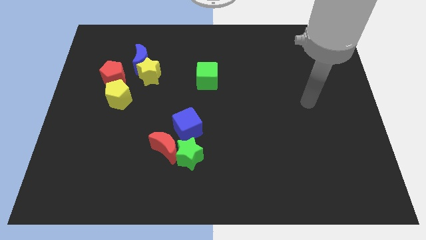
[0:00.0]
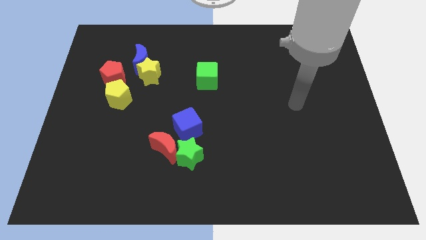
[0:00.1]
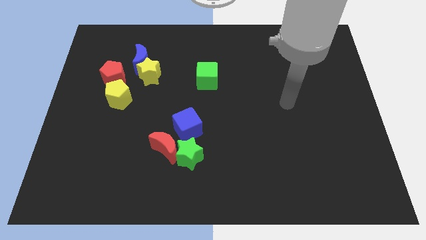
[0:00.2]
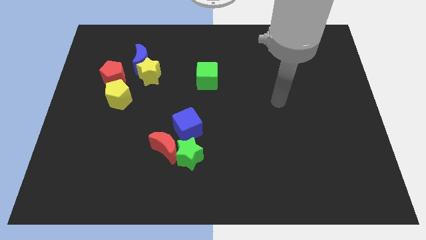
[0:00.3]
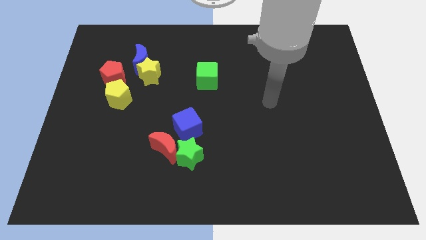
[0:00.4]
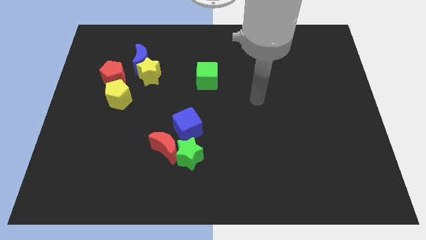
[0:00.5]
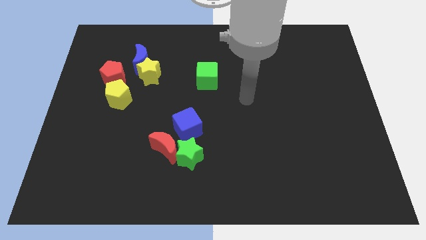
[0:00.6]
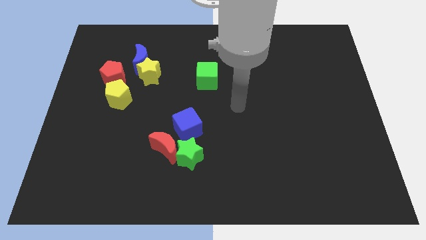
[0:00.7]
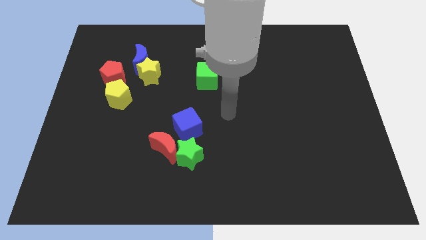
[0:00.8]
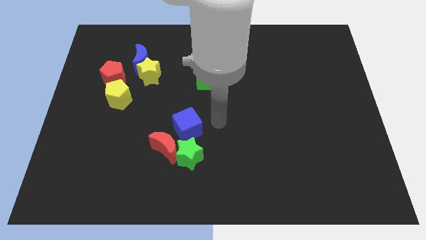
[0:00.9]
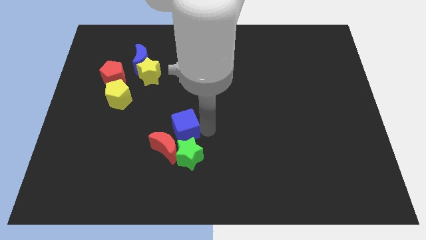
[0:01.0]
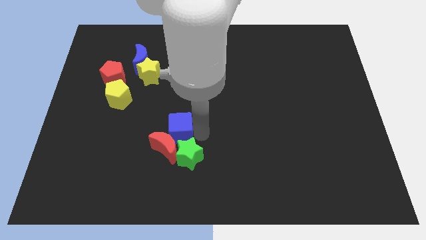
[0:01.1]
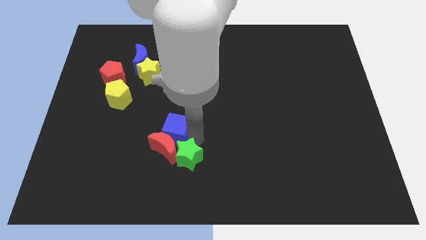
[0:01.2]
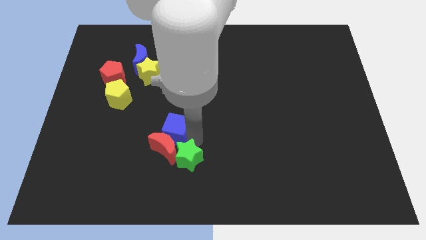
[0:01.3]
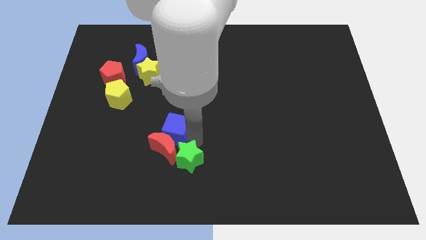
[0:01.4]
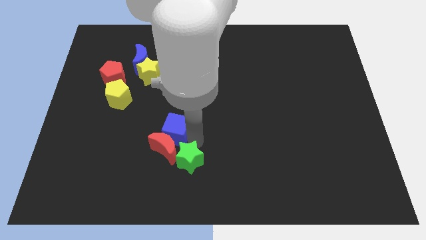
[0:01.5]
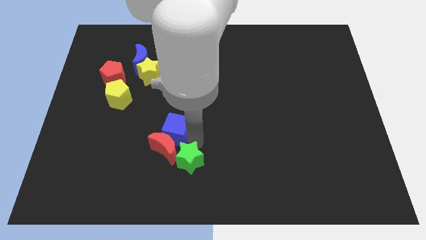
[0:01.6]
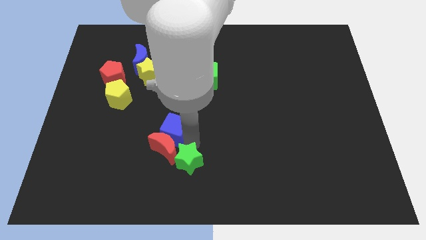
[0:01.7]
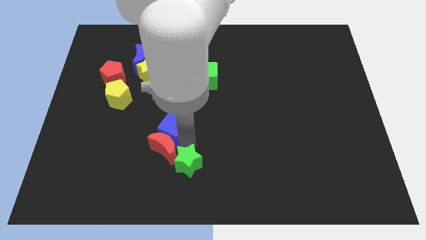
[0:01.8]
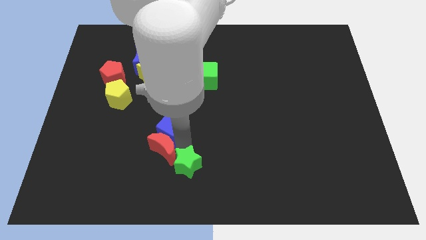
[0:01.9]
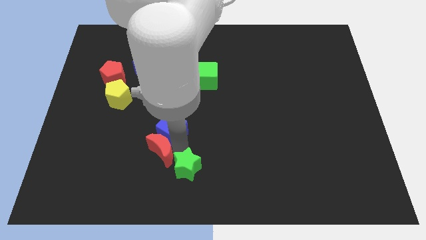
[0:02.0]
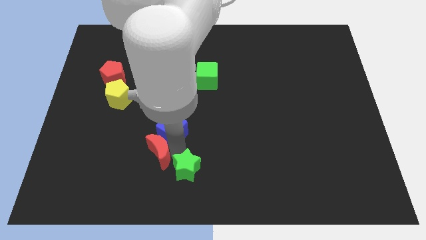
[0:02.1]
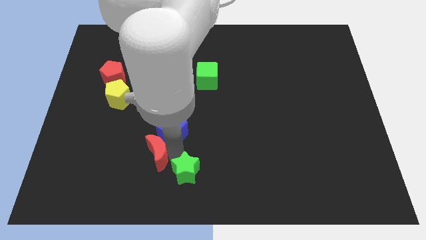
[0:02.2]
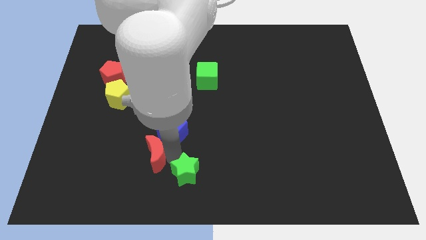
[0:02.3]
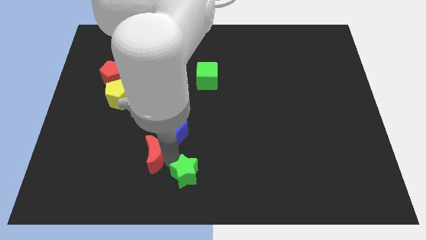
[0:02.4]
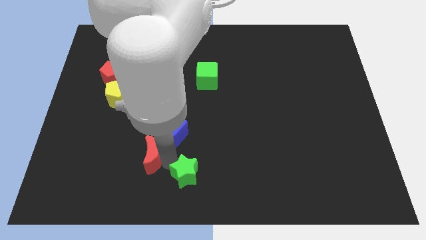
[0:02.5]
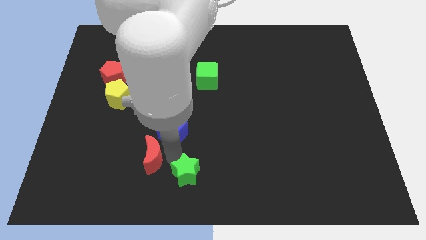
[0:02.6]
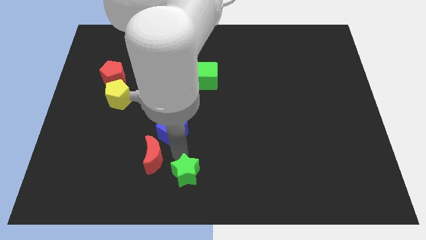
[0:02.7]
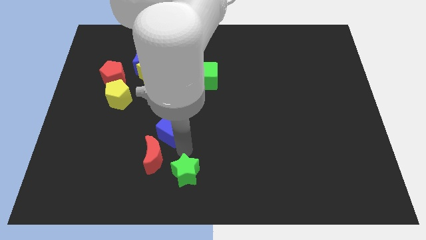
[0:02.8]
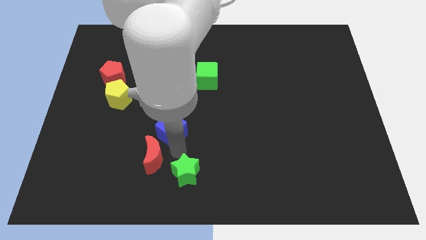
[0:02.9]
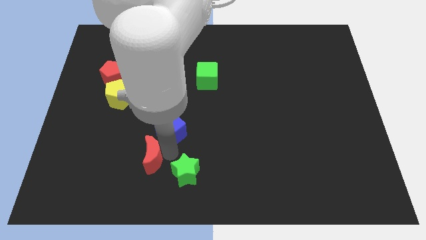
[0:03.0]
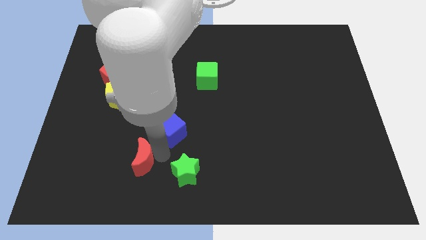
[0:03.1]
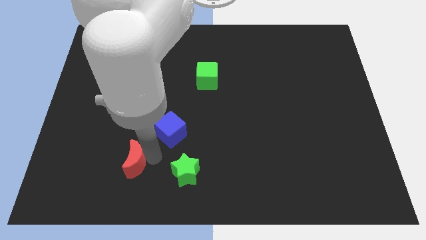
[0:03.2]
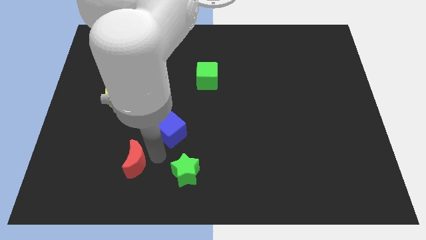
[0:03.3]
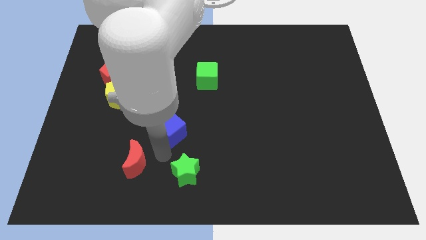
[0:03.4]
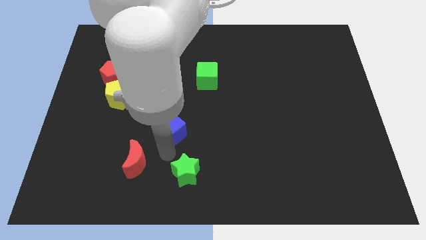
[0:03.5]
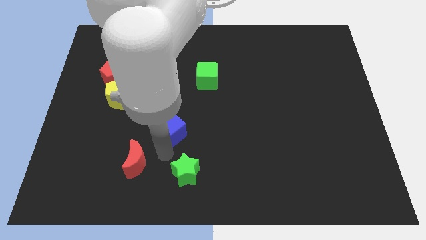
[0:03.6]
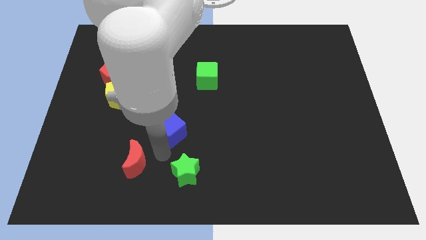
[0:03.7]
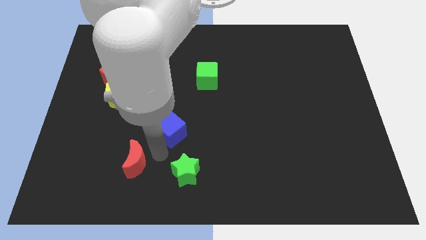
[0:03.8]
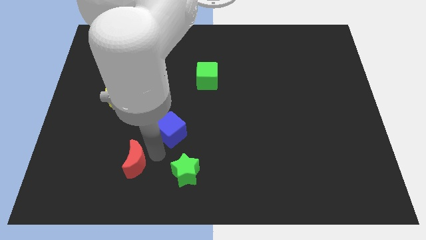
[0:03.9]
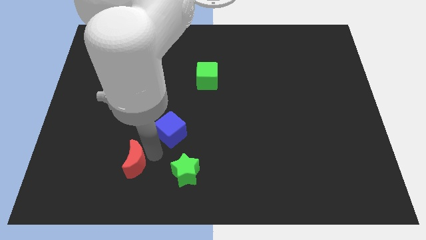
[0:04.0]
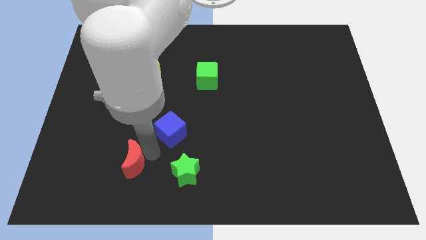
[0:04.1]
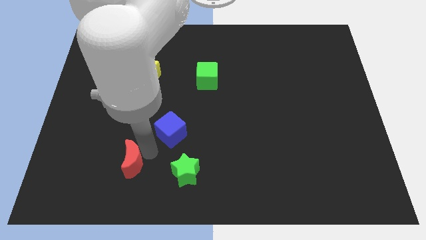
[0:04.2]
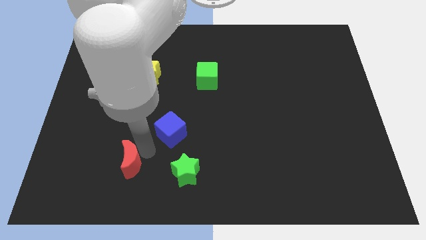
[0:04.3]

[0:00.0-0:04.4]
pull the red moon apart from the green star and blue cube

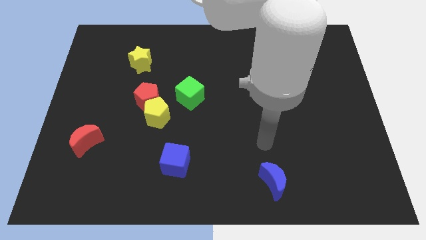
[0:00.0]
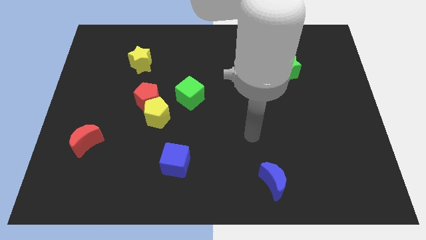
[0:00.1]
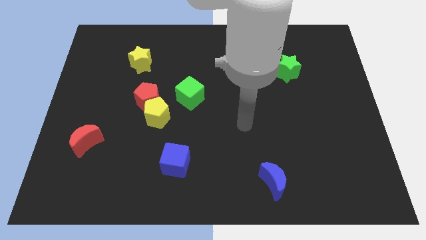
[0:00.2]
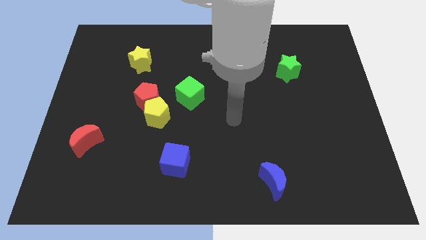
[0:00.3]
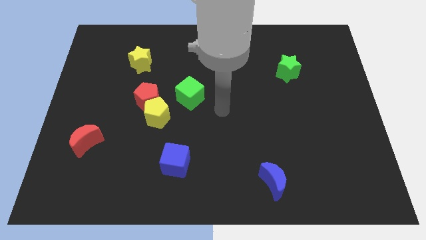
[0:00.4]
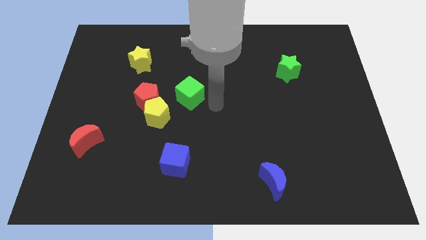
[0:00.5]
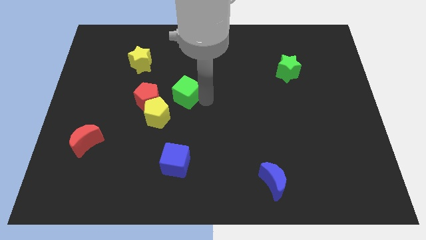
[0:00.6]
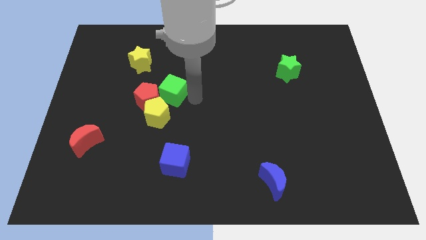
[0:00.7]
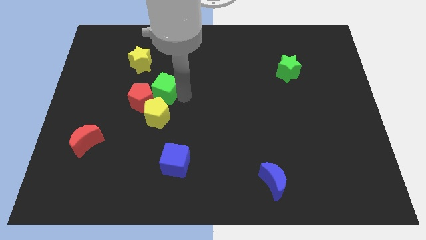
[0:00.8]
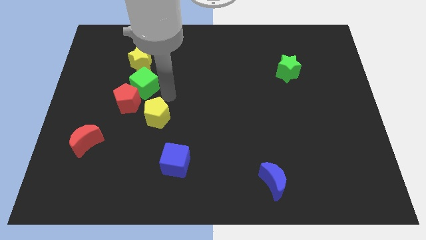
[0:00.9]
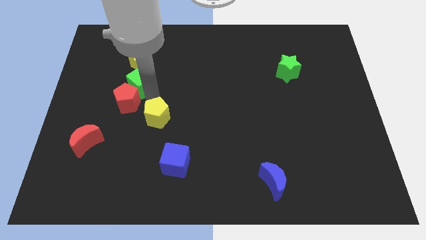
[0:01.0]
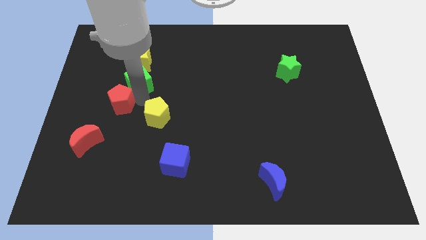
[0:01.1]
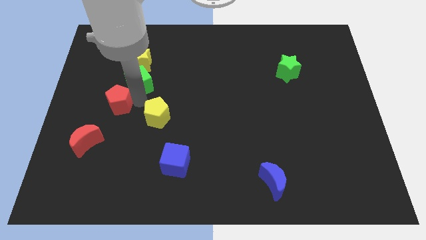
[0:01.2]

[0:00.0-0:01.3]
pull the yellow pentagon apart from the red pentagon and green cube

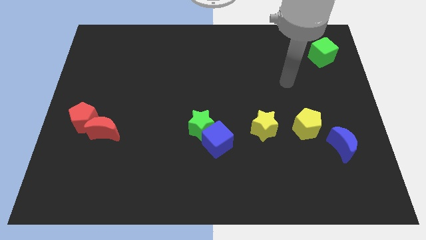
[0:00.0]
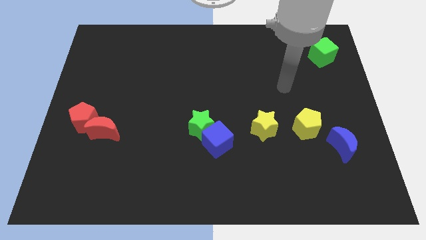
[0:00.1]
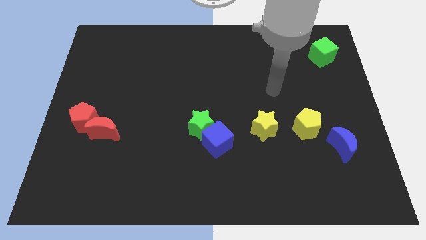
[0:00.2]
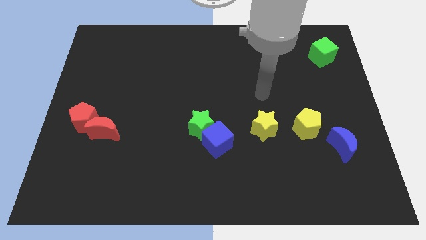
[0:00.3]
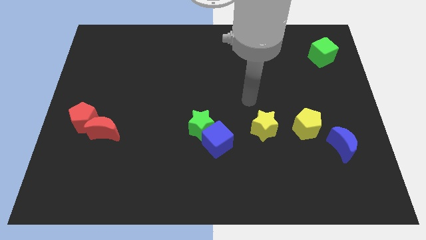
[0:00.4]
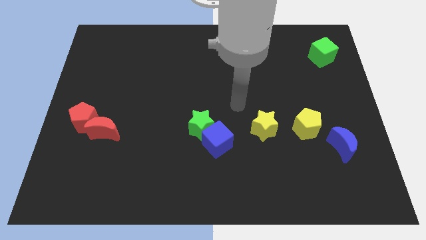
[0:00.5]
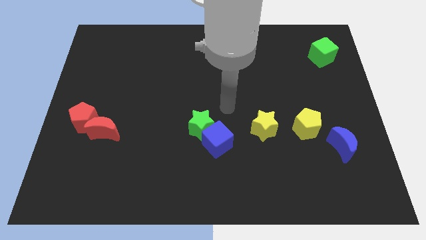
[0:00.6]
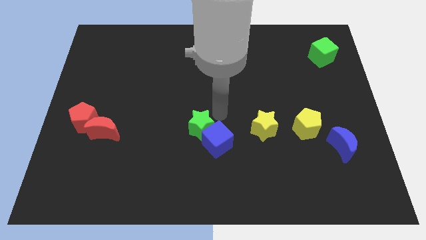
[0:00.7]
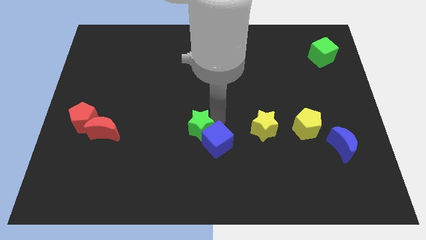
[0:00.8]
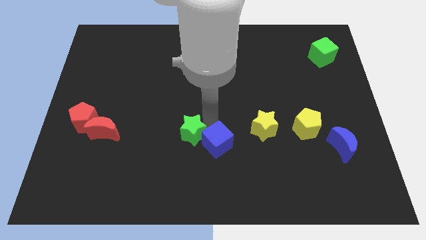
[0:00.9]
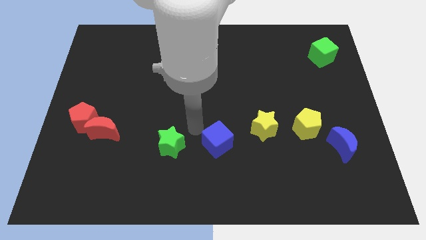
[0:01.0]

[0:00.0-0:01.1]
separate the blue cube from the green star

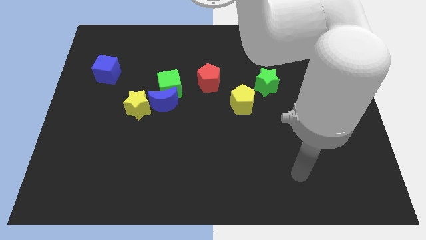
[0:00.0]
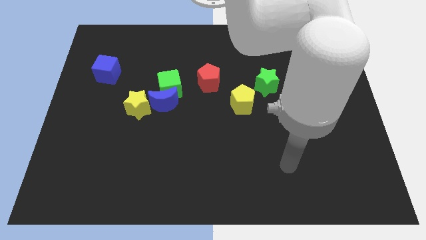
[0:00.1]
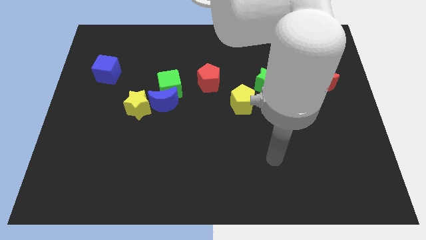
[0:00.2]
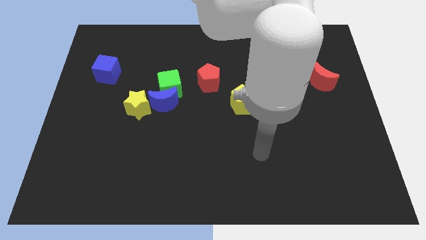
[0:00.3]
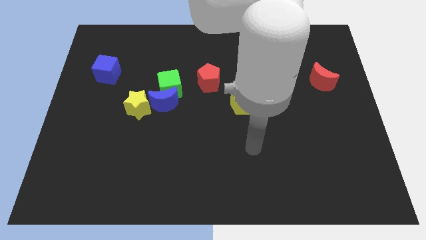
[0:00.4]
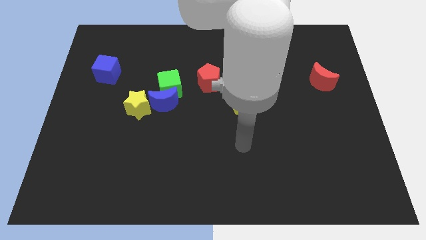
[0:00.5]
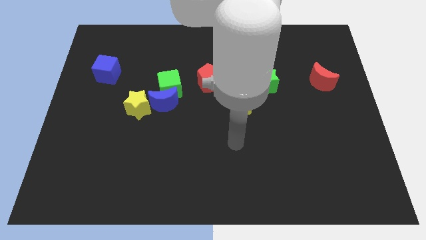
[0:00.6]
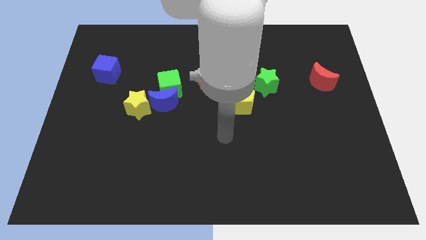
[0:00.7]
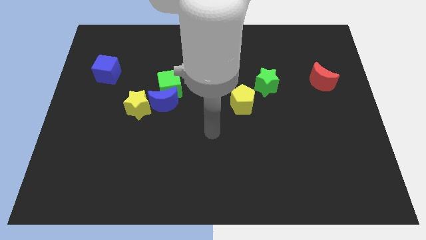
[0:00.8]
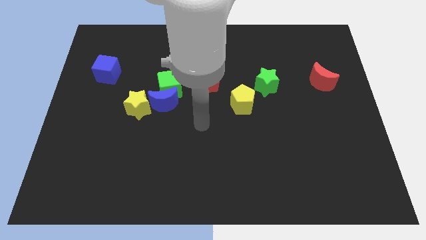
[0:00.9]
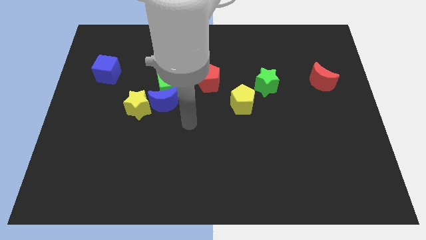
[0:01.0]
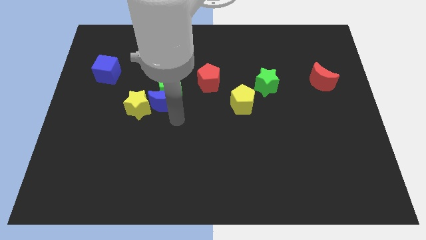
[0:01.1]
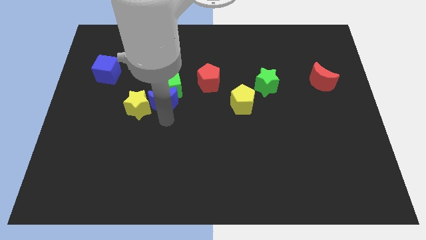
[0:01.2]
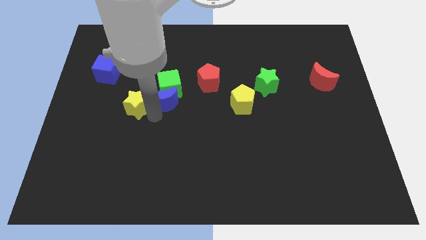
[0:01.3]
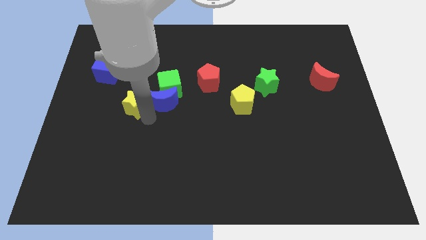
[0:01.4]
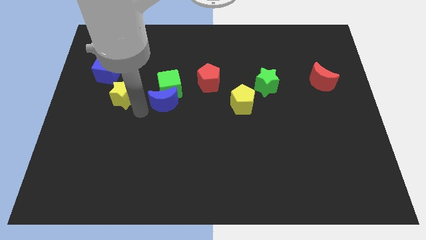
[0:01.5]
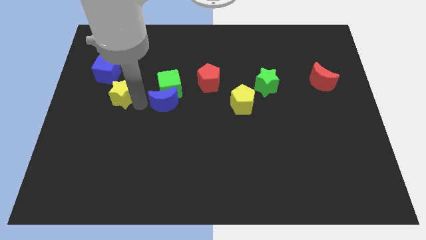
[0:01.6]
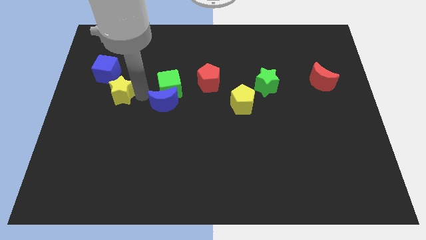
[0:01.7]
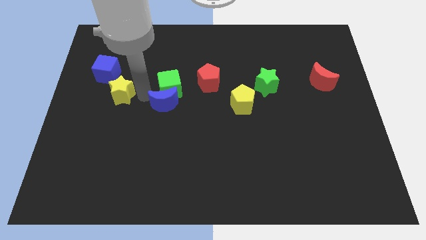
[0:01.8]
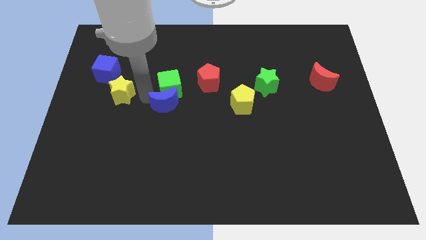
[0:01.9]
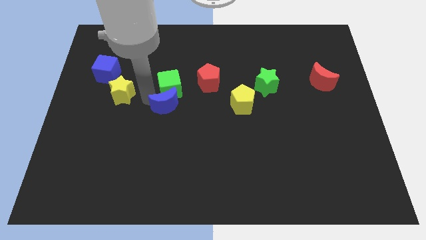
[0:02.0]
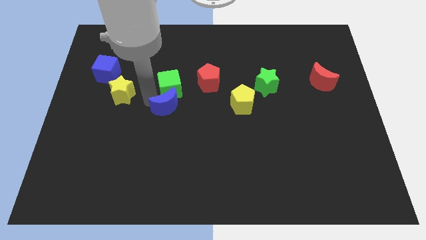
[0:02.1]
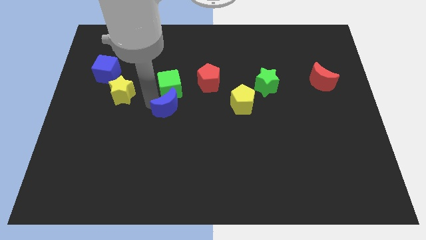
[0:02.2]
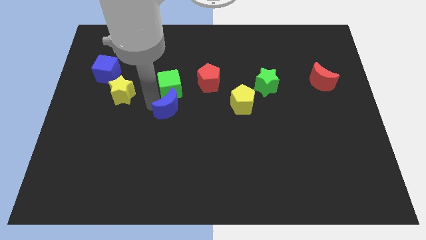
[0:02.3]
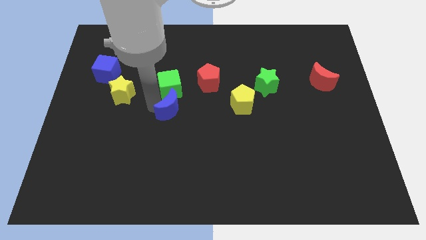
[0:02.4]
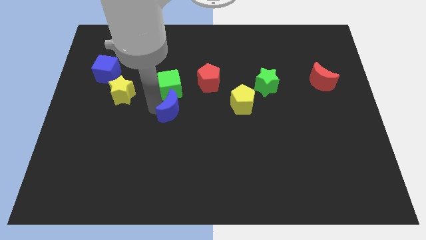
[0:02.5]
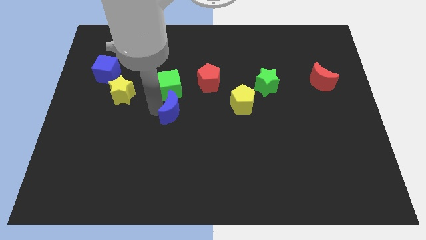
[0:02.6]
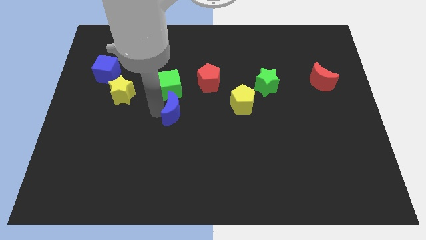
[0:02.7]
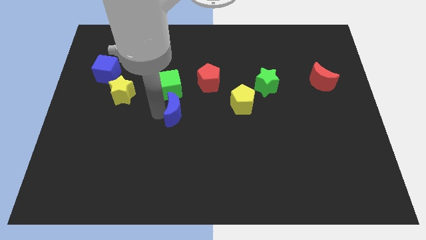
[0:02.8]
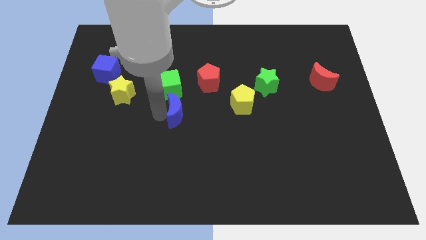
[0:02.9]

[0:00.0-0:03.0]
separate the blue moon from the green cube and yellow star
